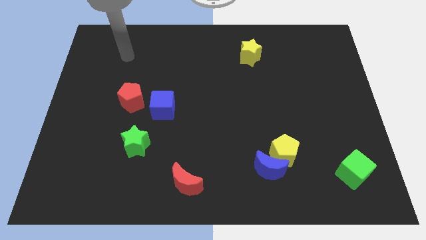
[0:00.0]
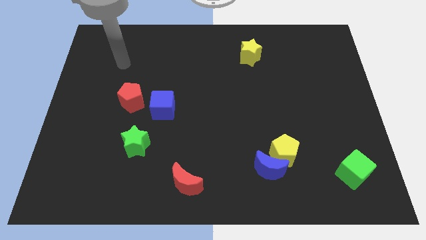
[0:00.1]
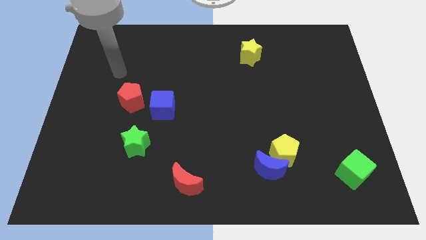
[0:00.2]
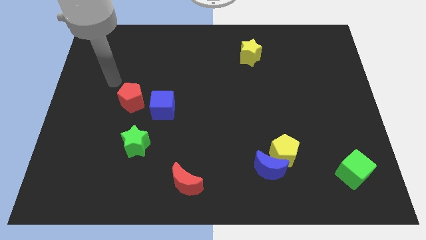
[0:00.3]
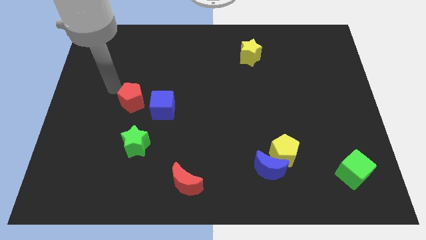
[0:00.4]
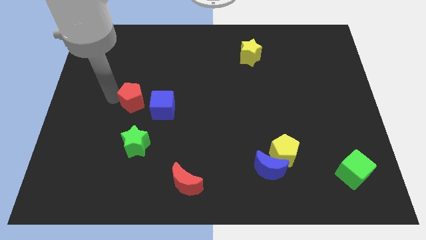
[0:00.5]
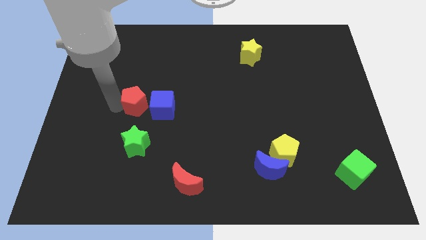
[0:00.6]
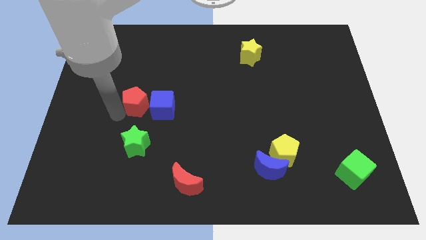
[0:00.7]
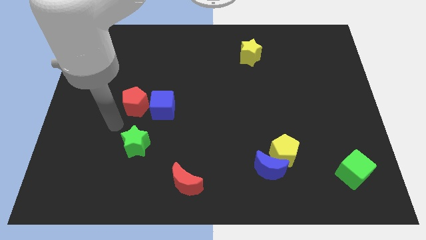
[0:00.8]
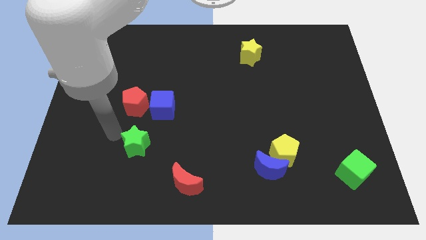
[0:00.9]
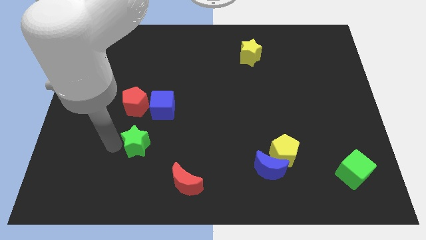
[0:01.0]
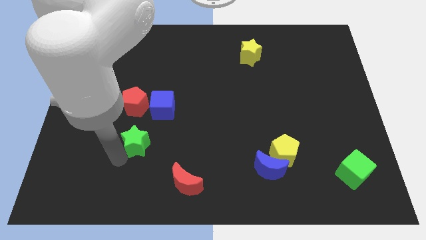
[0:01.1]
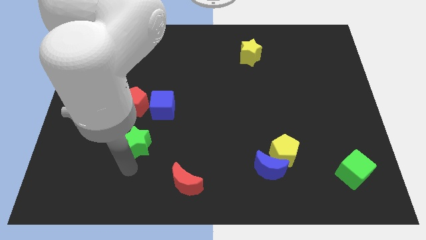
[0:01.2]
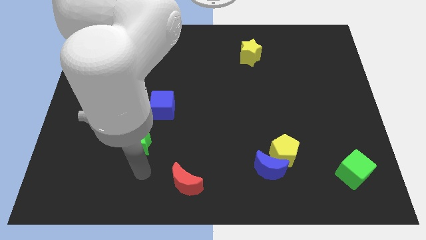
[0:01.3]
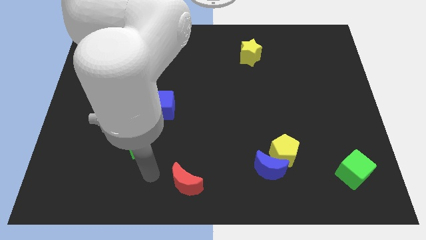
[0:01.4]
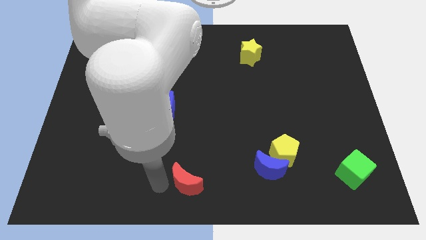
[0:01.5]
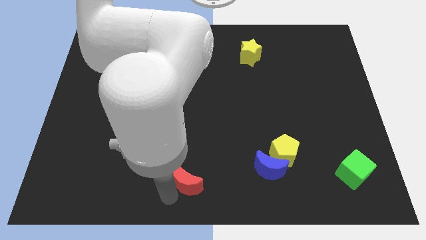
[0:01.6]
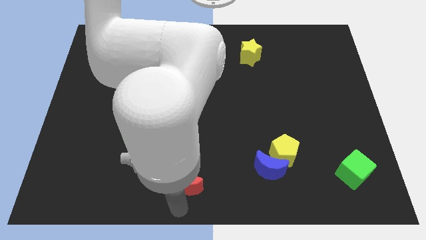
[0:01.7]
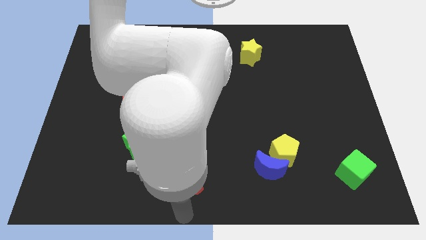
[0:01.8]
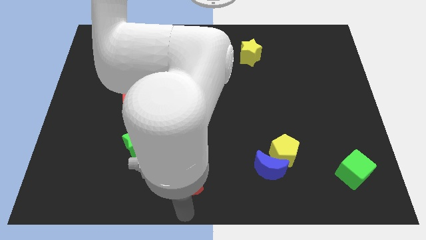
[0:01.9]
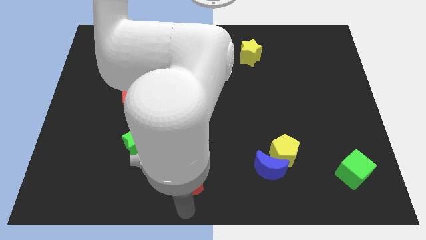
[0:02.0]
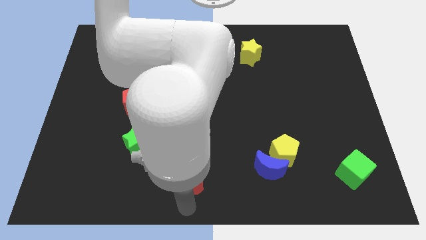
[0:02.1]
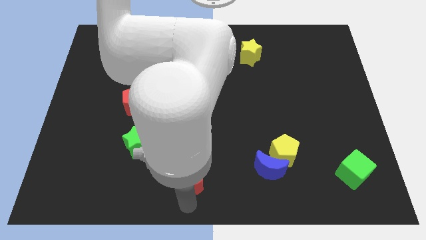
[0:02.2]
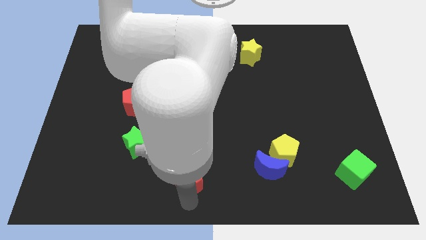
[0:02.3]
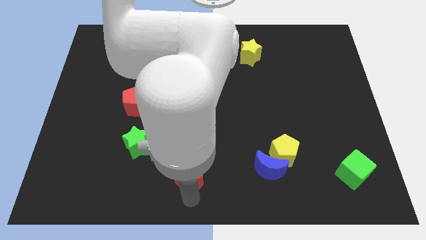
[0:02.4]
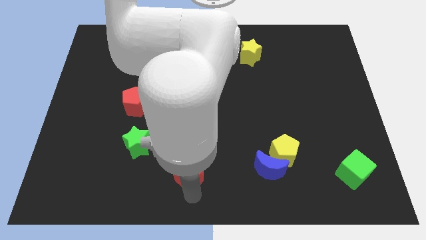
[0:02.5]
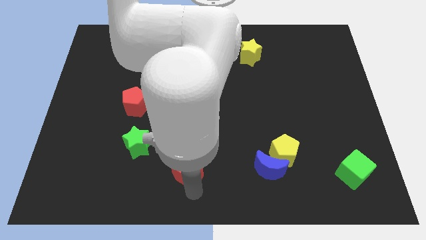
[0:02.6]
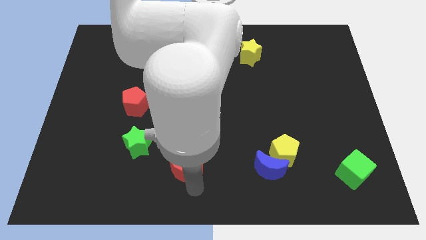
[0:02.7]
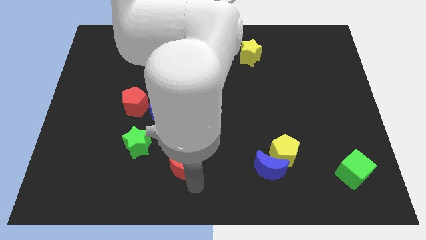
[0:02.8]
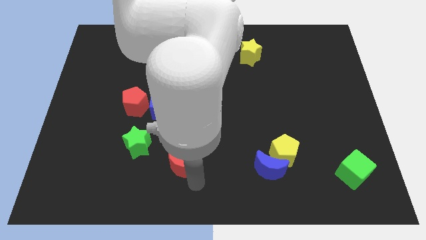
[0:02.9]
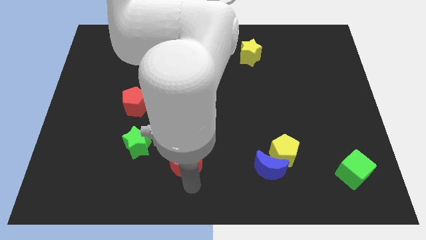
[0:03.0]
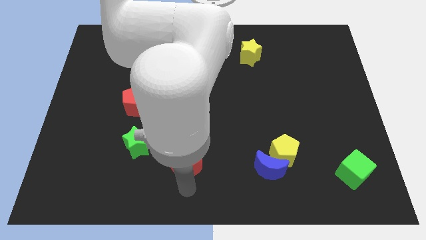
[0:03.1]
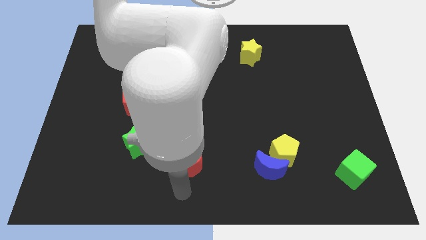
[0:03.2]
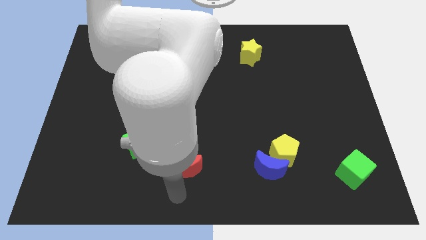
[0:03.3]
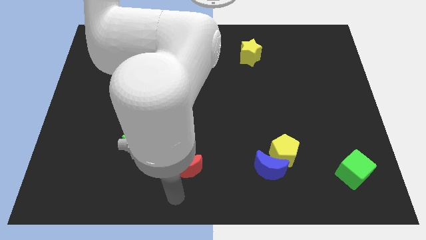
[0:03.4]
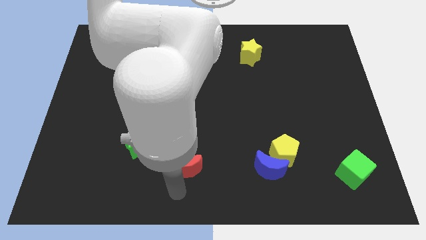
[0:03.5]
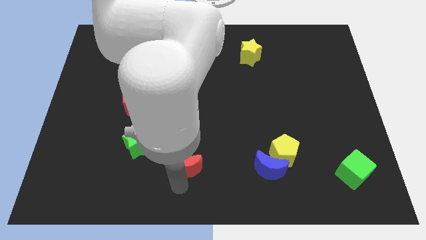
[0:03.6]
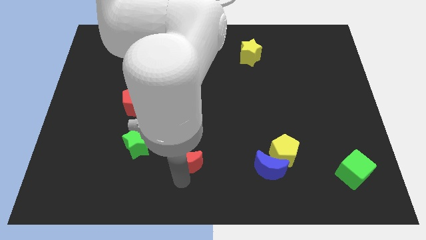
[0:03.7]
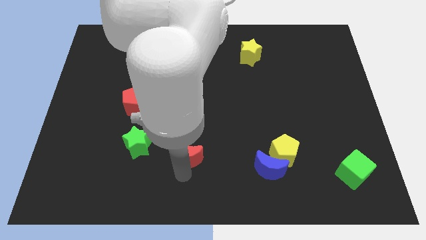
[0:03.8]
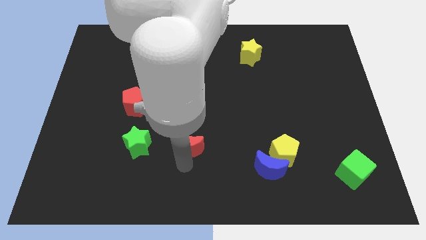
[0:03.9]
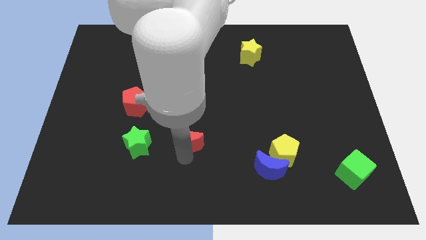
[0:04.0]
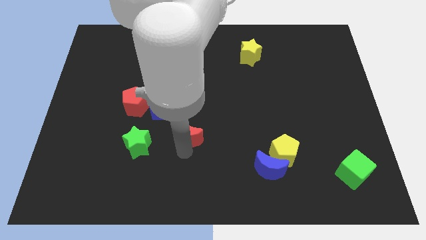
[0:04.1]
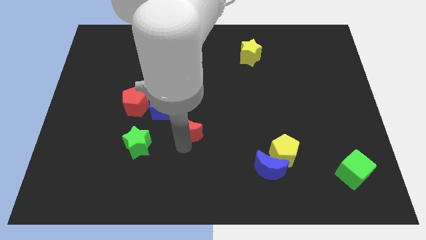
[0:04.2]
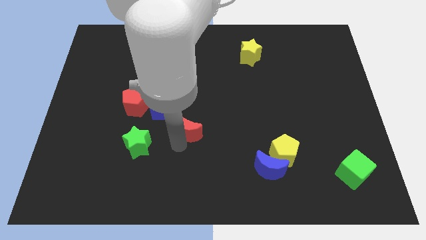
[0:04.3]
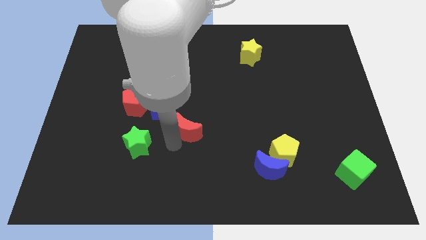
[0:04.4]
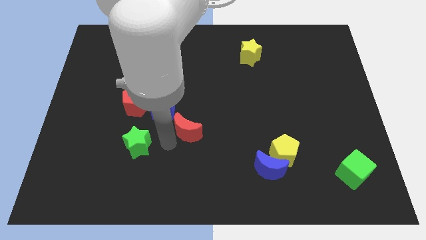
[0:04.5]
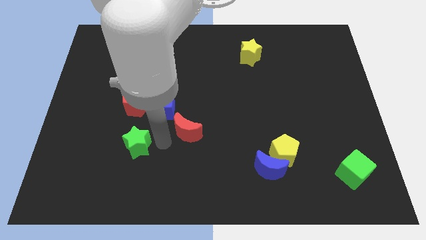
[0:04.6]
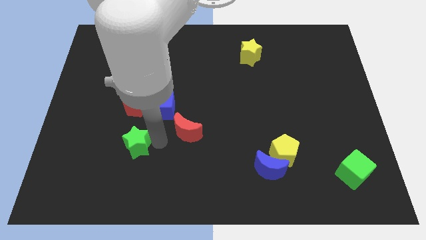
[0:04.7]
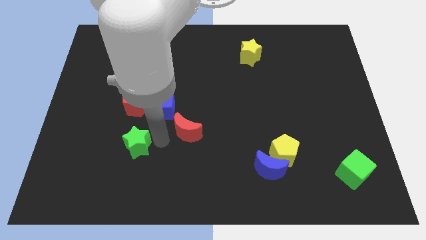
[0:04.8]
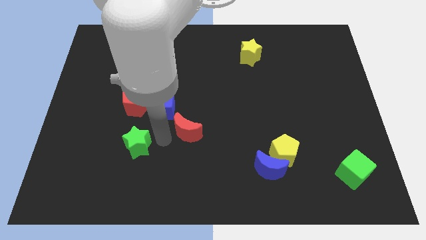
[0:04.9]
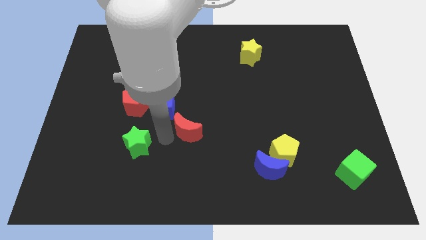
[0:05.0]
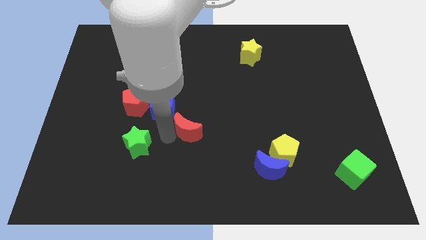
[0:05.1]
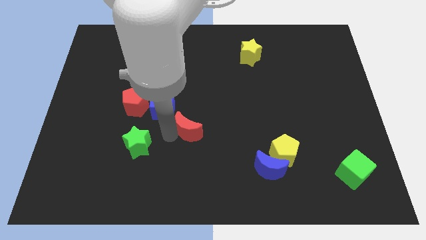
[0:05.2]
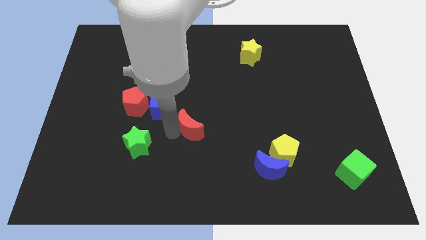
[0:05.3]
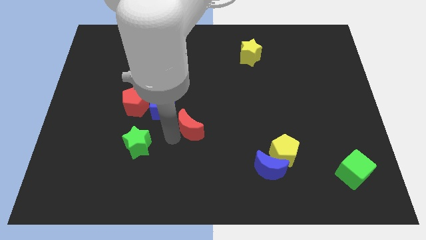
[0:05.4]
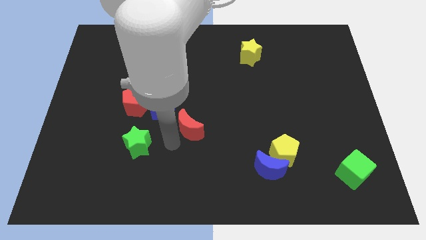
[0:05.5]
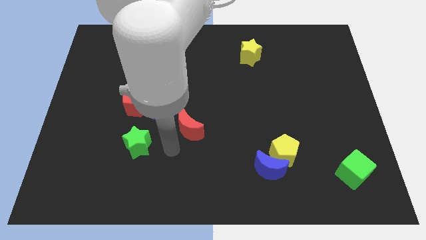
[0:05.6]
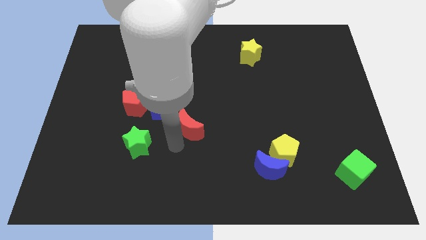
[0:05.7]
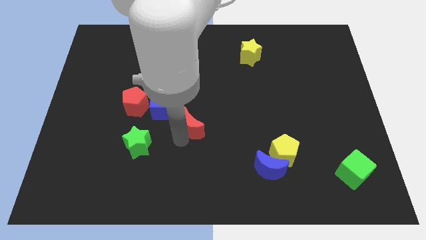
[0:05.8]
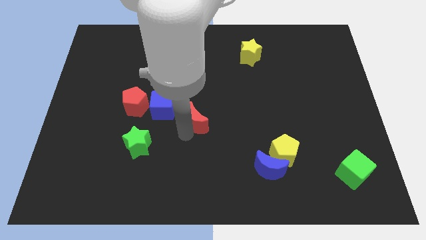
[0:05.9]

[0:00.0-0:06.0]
push the red moon to the right side of the blue cube

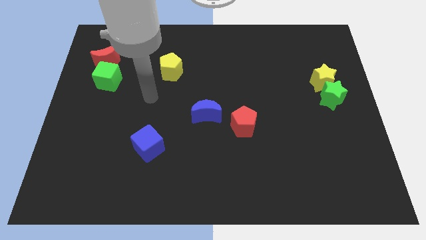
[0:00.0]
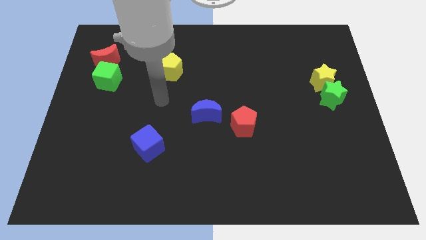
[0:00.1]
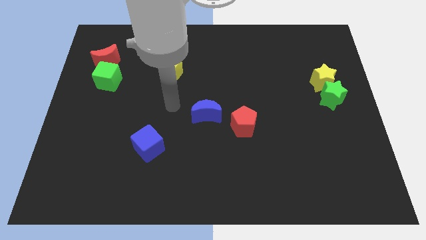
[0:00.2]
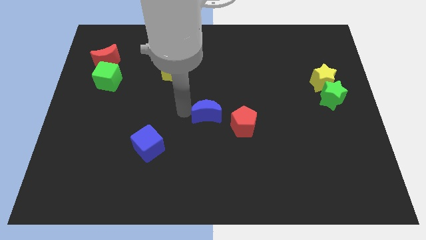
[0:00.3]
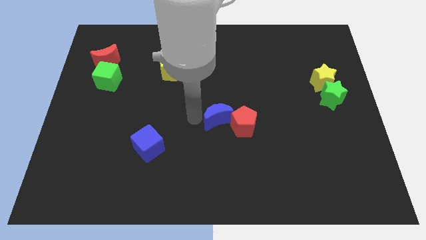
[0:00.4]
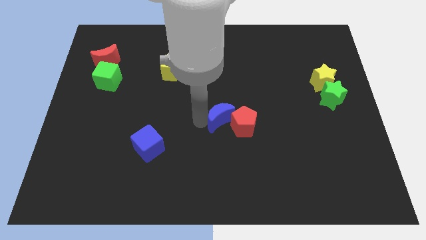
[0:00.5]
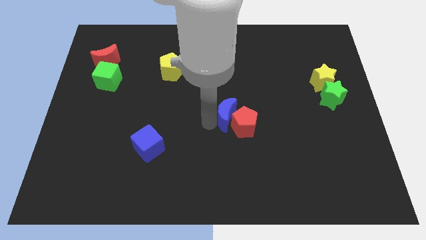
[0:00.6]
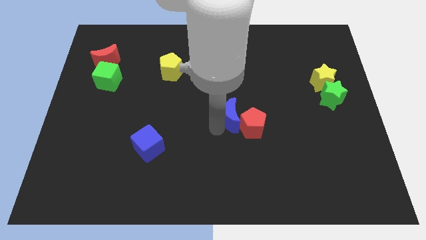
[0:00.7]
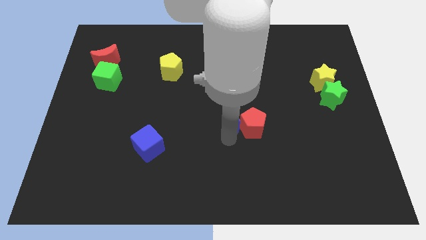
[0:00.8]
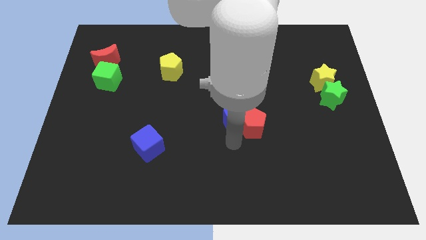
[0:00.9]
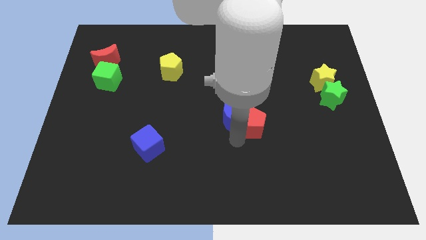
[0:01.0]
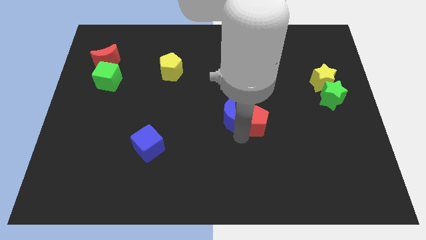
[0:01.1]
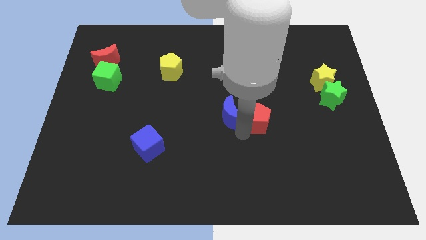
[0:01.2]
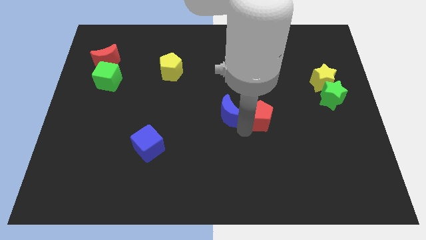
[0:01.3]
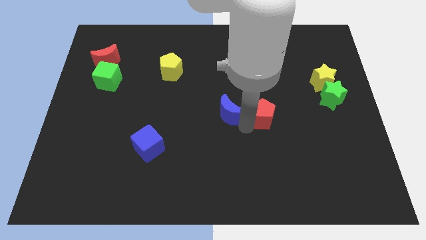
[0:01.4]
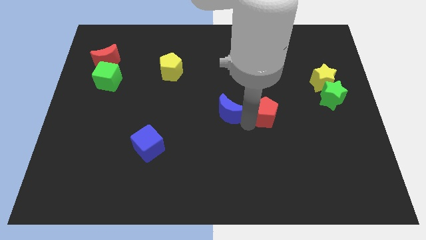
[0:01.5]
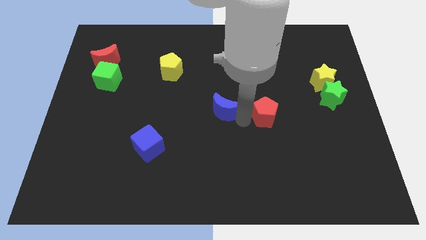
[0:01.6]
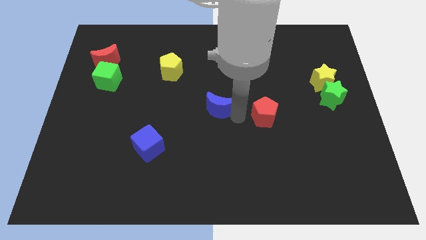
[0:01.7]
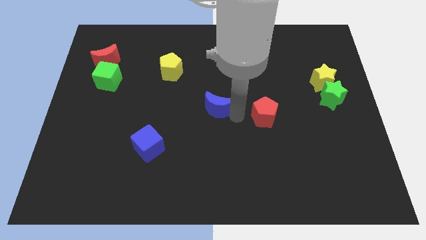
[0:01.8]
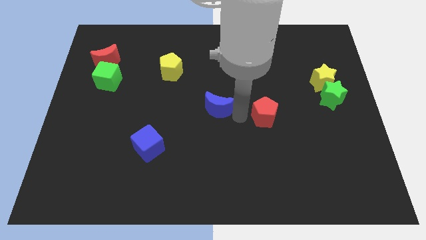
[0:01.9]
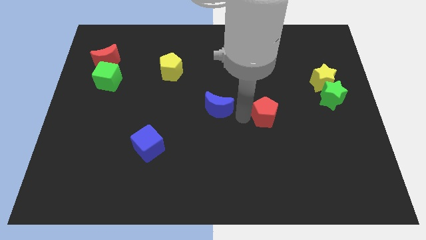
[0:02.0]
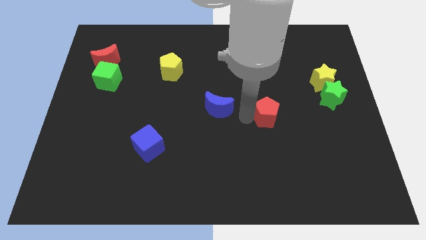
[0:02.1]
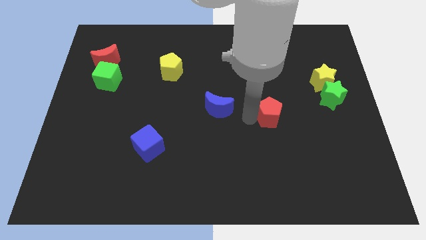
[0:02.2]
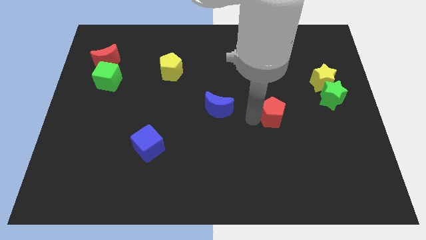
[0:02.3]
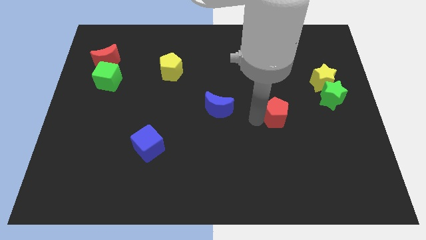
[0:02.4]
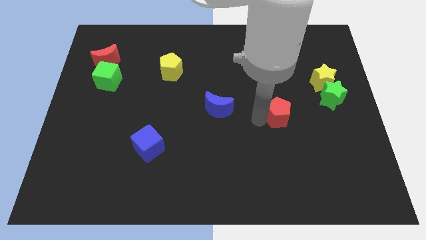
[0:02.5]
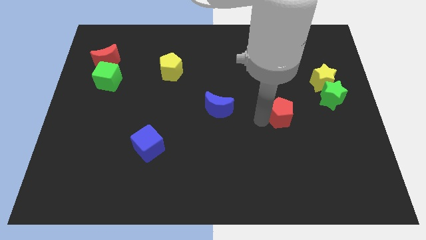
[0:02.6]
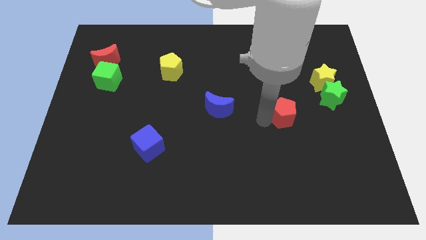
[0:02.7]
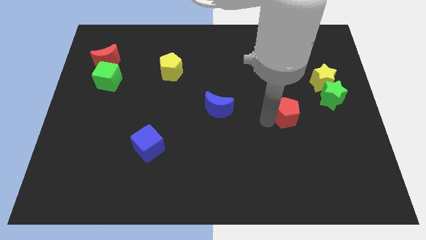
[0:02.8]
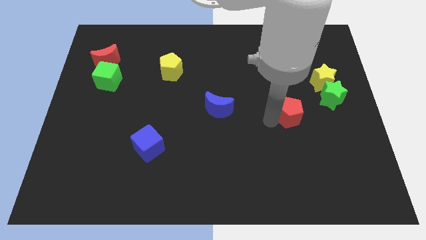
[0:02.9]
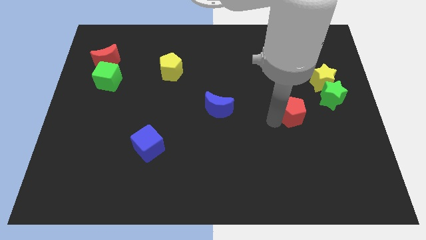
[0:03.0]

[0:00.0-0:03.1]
push the red pentagon diagonally down and to the left of the green star
